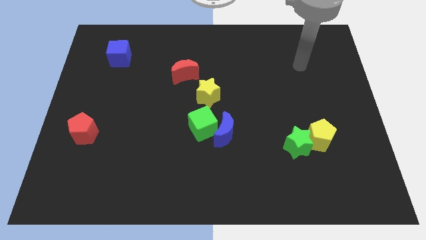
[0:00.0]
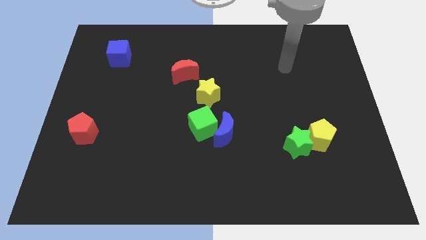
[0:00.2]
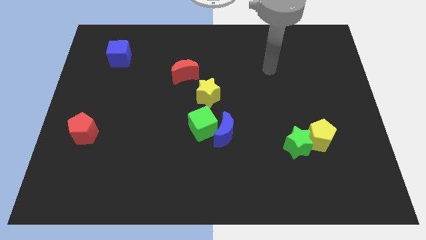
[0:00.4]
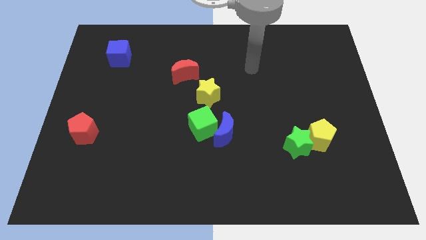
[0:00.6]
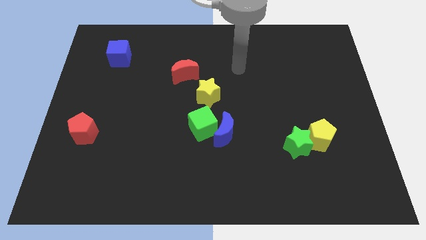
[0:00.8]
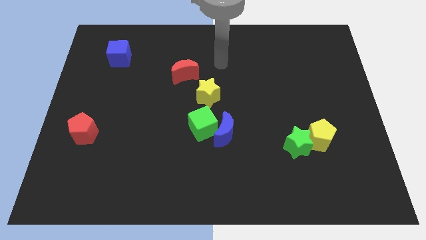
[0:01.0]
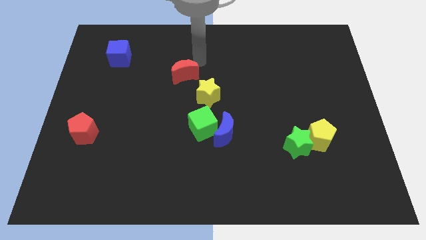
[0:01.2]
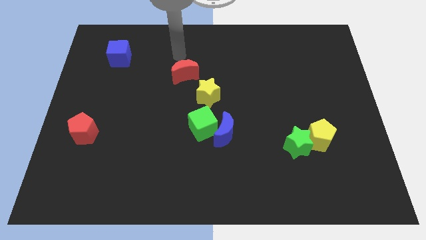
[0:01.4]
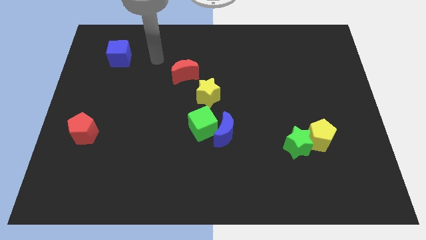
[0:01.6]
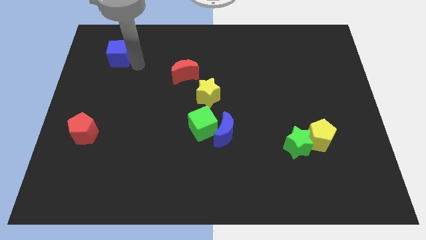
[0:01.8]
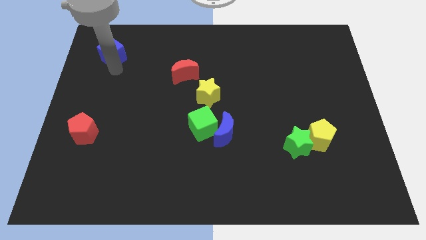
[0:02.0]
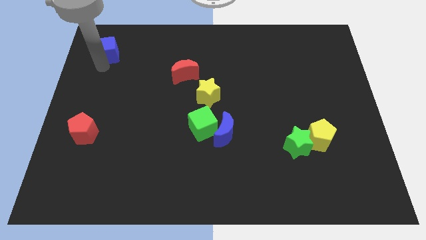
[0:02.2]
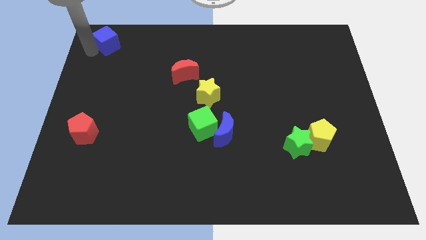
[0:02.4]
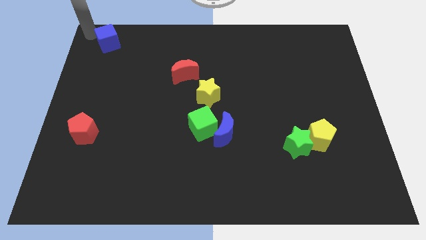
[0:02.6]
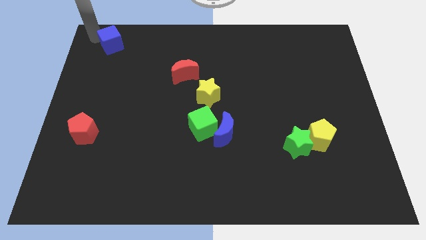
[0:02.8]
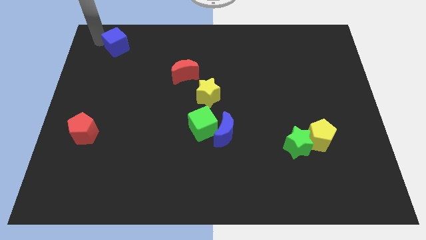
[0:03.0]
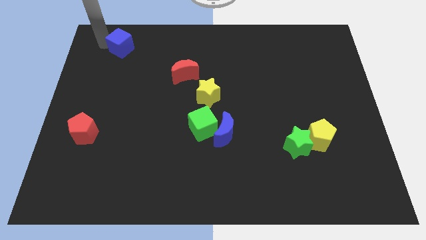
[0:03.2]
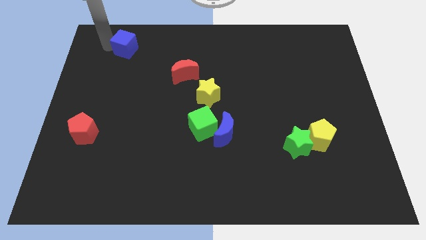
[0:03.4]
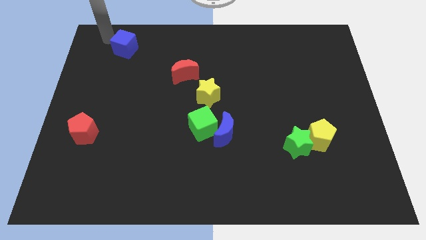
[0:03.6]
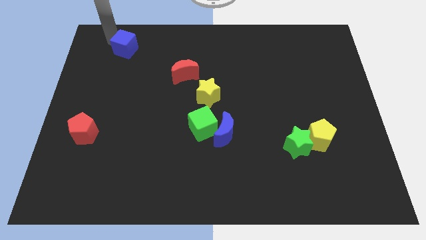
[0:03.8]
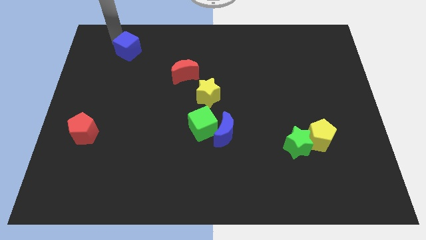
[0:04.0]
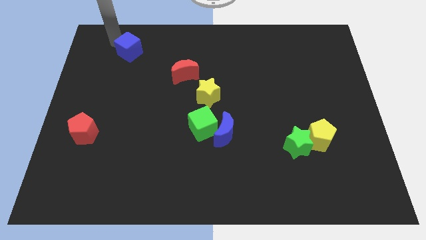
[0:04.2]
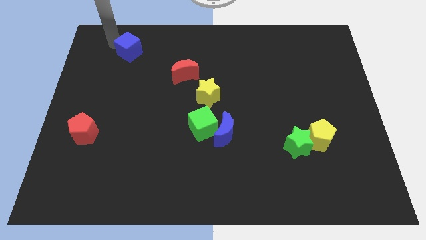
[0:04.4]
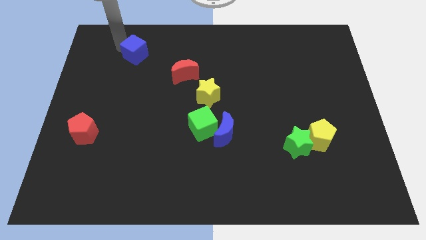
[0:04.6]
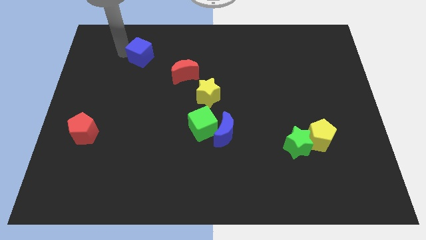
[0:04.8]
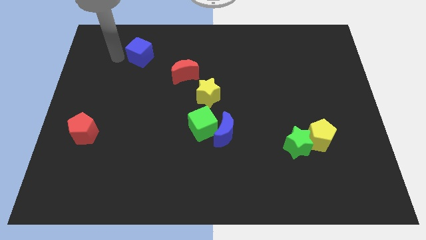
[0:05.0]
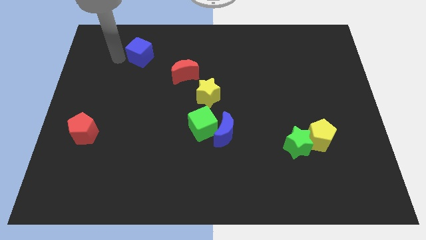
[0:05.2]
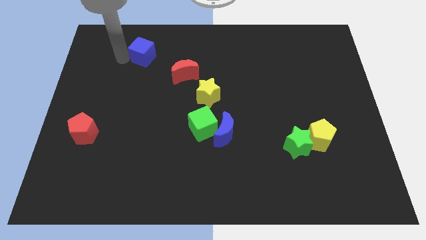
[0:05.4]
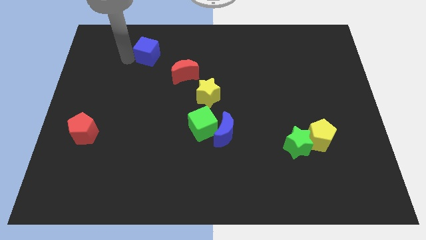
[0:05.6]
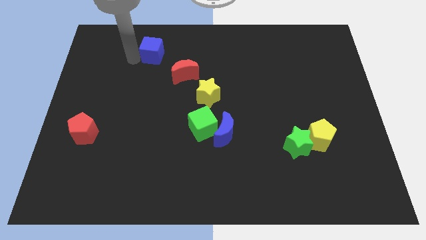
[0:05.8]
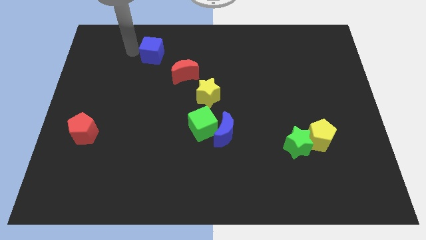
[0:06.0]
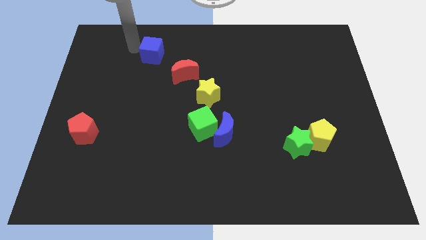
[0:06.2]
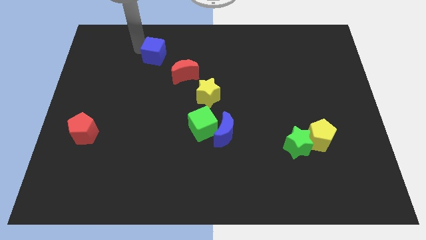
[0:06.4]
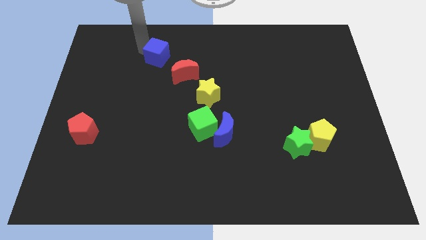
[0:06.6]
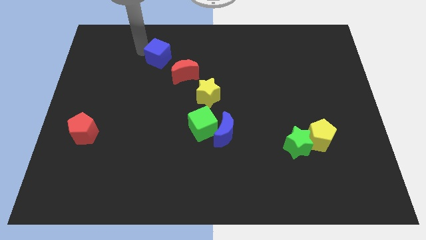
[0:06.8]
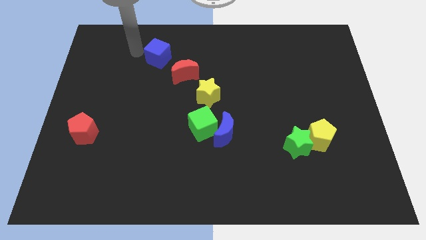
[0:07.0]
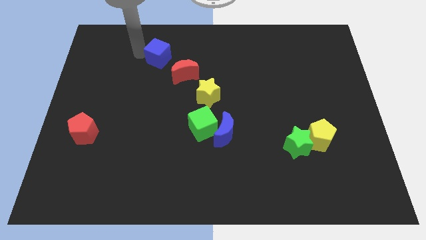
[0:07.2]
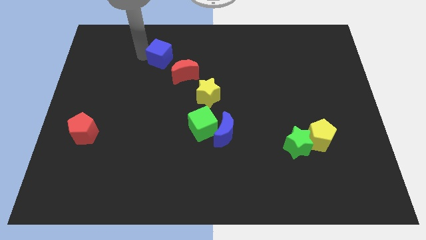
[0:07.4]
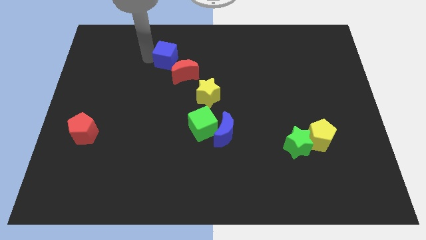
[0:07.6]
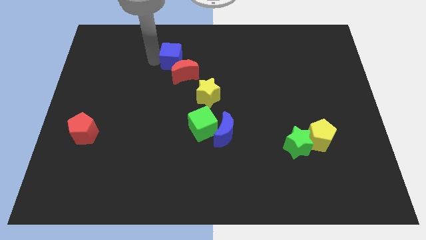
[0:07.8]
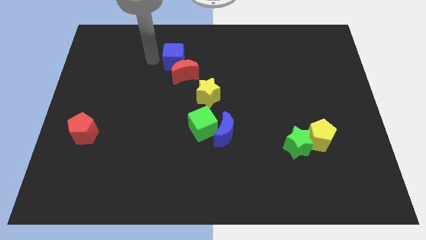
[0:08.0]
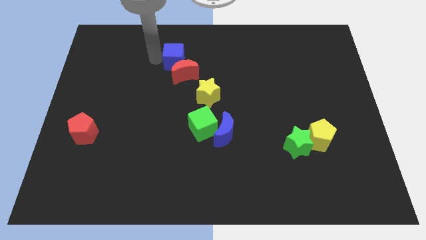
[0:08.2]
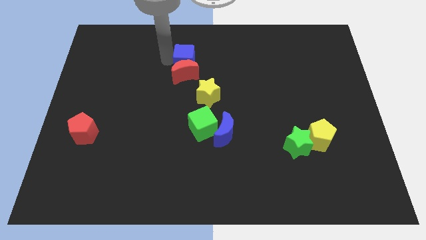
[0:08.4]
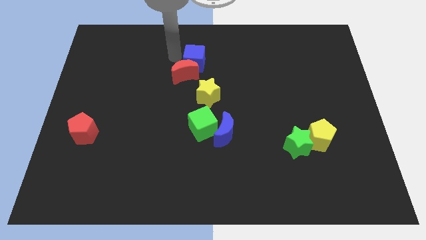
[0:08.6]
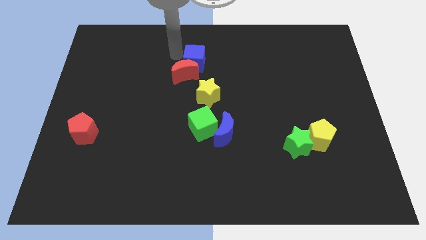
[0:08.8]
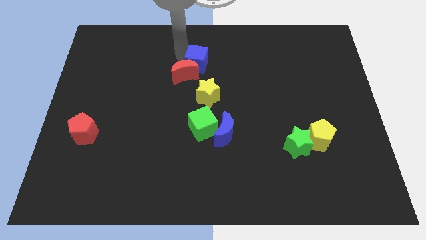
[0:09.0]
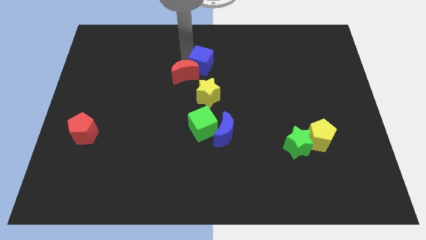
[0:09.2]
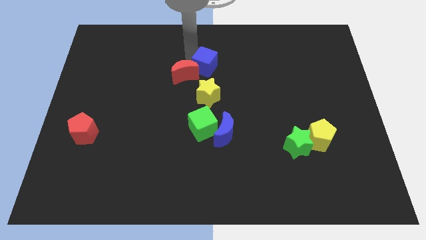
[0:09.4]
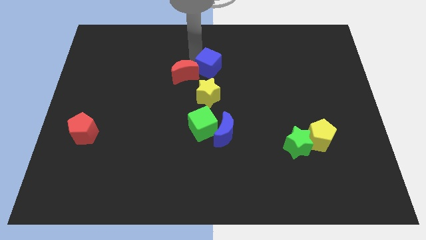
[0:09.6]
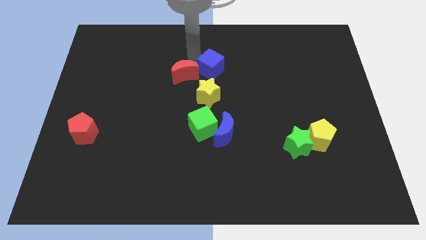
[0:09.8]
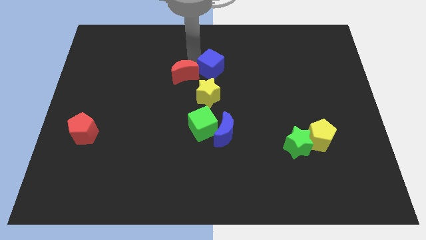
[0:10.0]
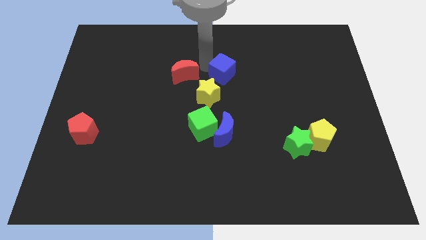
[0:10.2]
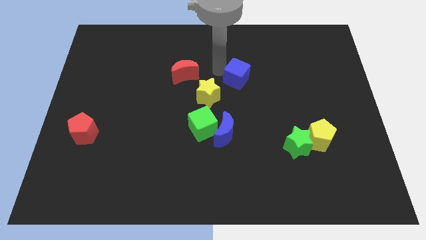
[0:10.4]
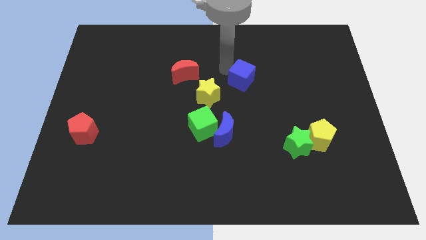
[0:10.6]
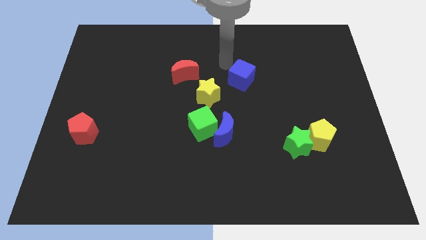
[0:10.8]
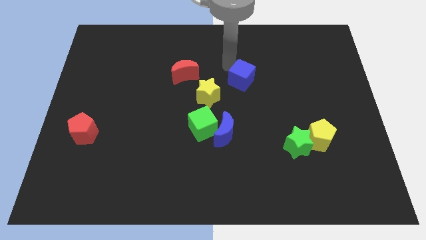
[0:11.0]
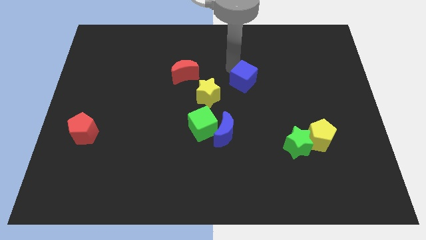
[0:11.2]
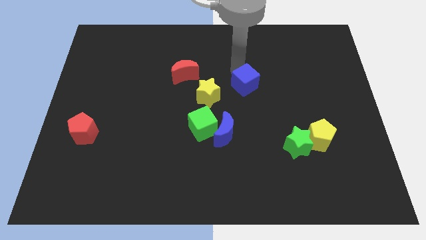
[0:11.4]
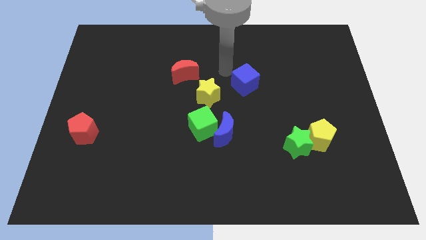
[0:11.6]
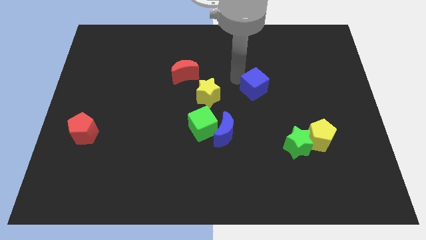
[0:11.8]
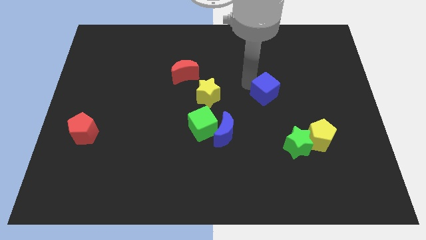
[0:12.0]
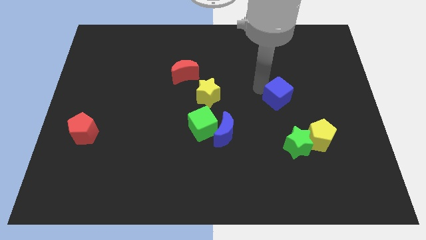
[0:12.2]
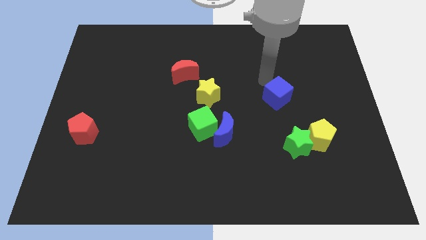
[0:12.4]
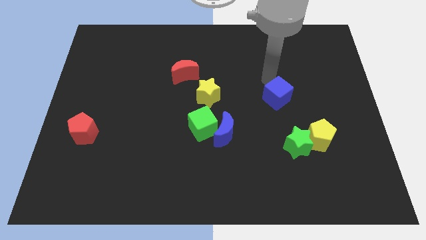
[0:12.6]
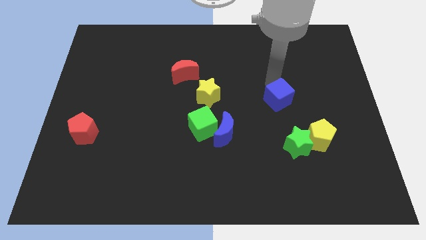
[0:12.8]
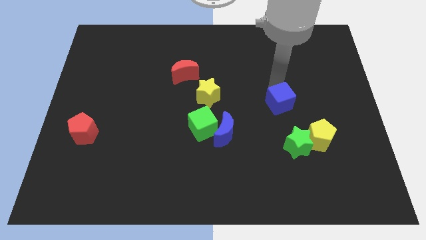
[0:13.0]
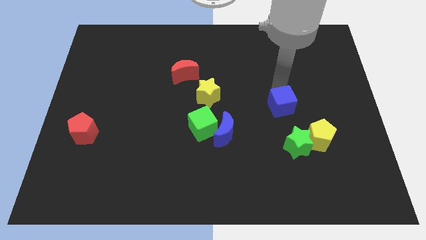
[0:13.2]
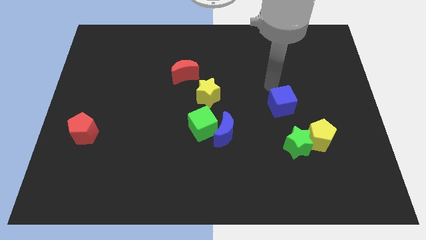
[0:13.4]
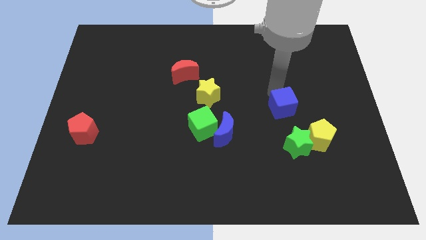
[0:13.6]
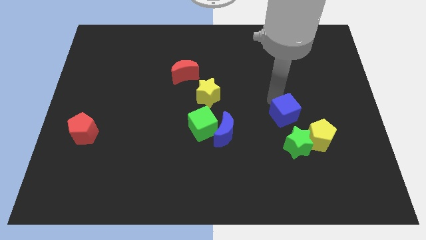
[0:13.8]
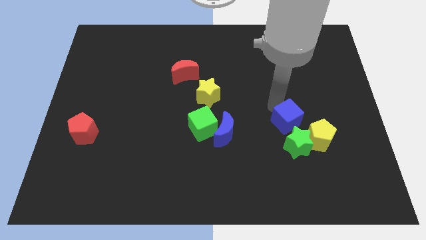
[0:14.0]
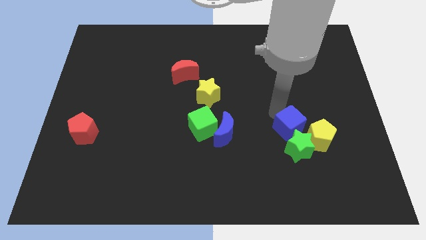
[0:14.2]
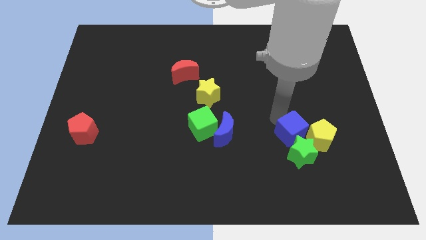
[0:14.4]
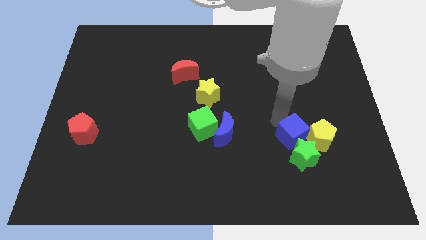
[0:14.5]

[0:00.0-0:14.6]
put the blue cube close to the yellow pentagon
